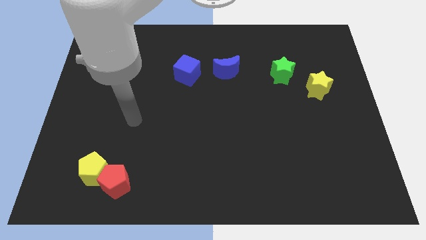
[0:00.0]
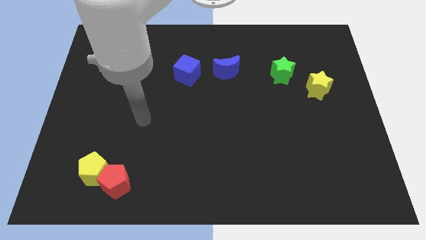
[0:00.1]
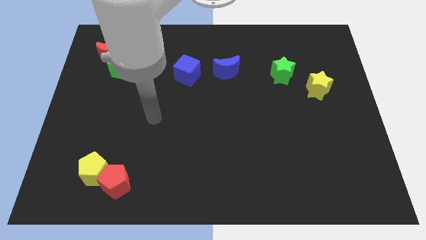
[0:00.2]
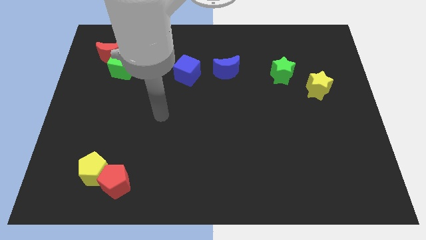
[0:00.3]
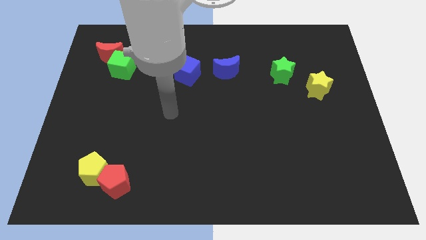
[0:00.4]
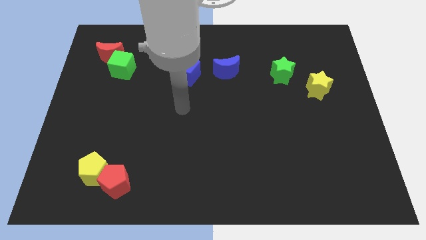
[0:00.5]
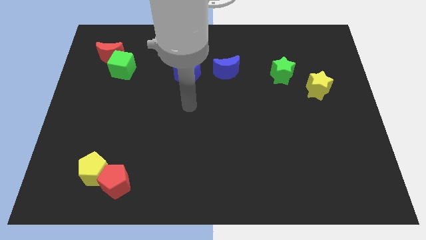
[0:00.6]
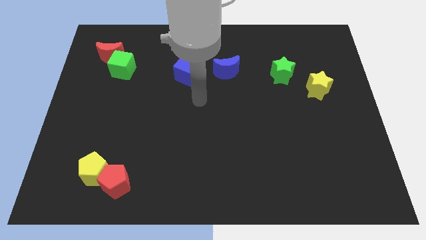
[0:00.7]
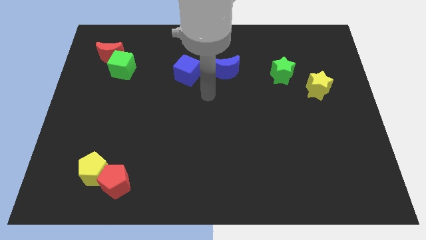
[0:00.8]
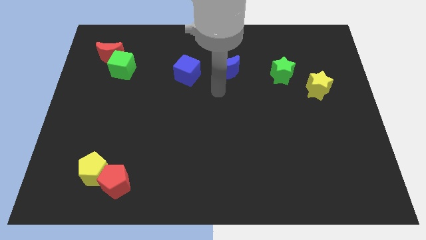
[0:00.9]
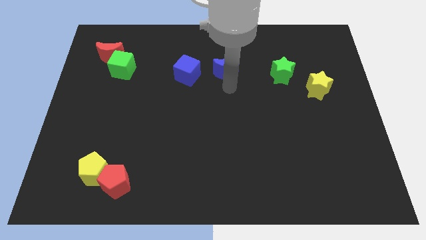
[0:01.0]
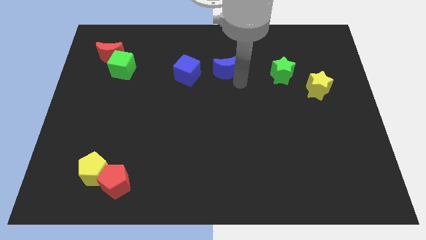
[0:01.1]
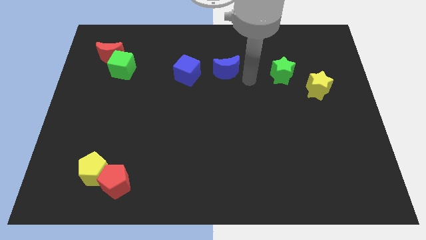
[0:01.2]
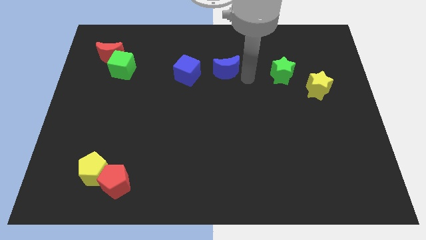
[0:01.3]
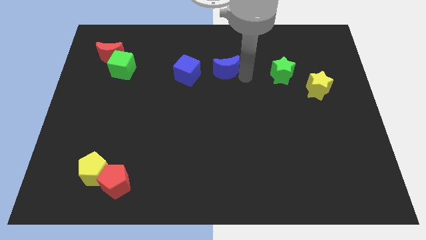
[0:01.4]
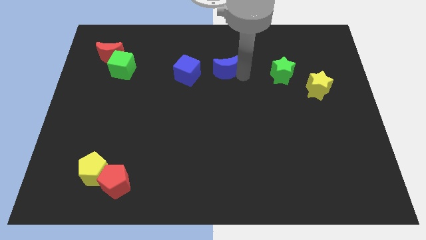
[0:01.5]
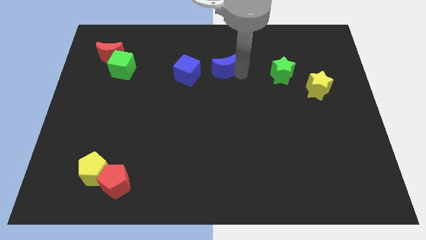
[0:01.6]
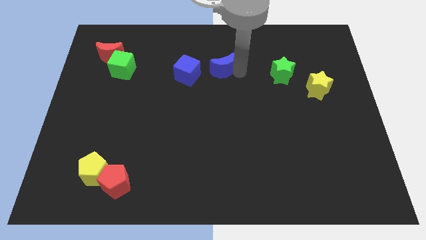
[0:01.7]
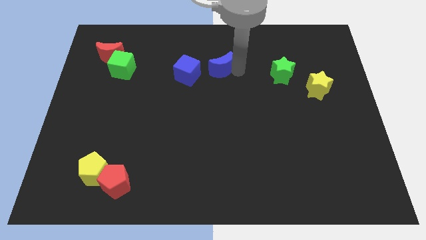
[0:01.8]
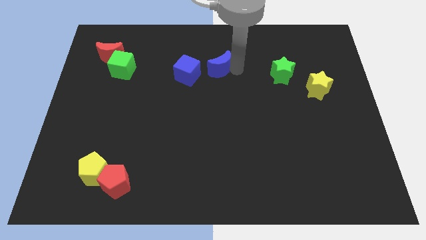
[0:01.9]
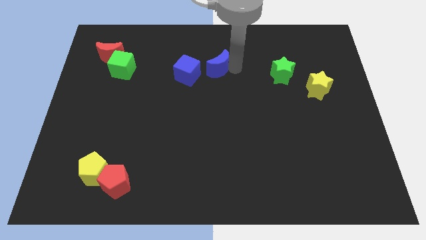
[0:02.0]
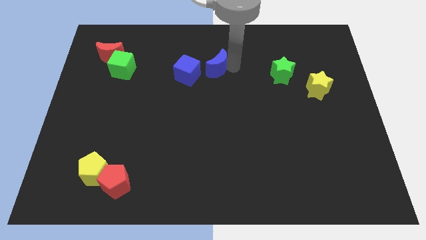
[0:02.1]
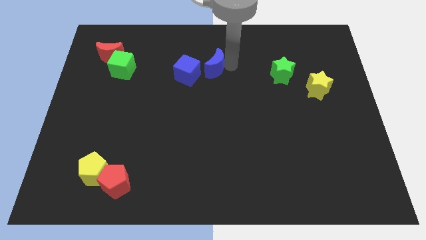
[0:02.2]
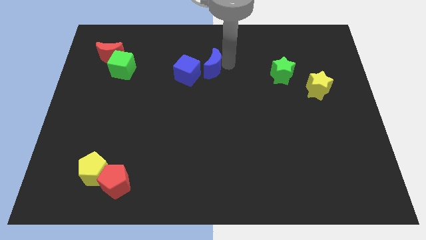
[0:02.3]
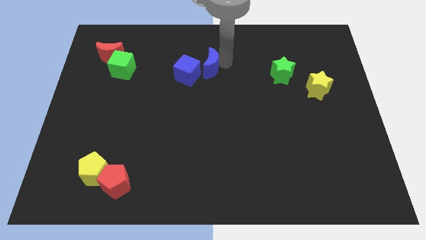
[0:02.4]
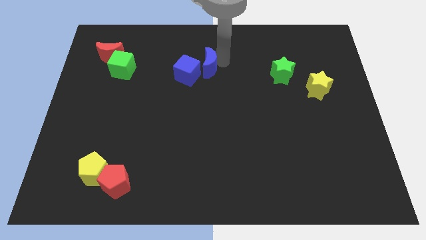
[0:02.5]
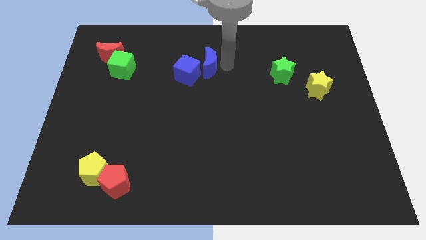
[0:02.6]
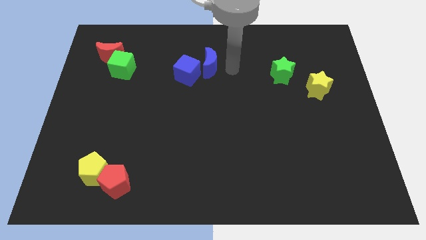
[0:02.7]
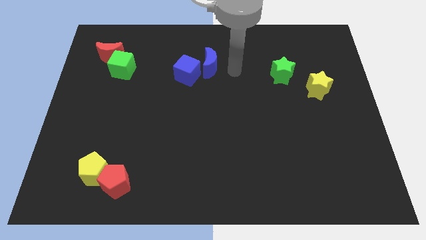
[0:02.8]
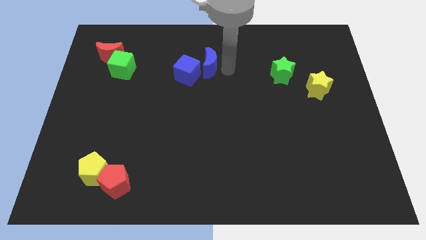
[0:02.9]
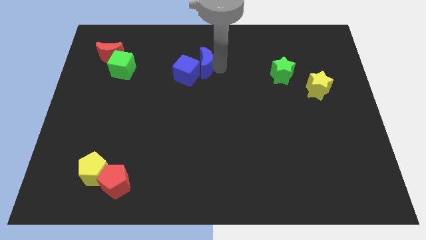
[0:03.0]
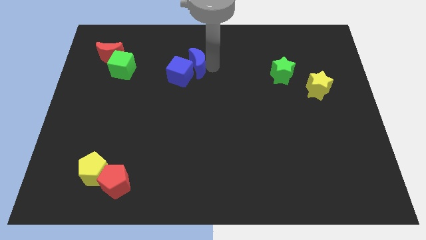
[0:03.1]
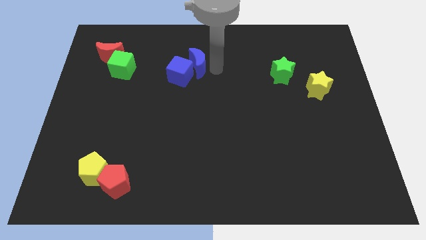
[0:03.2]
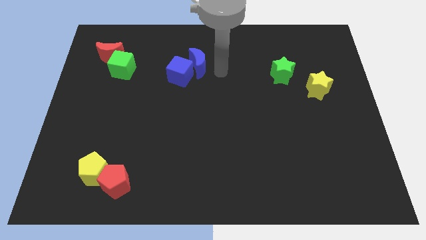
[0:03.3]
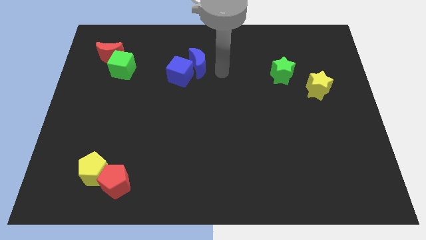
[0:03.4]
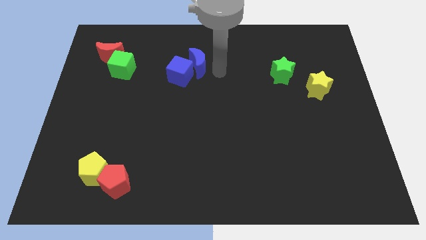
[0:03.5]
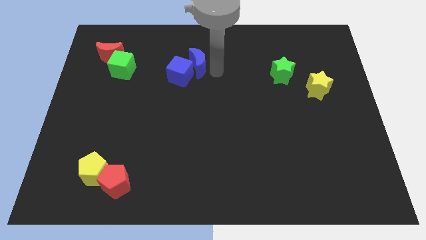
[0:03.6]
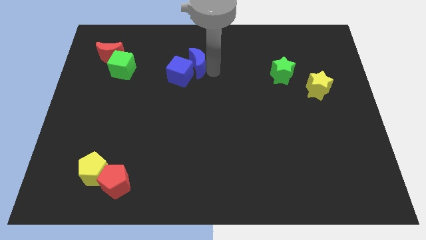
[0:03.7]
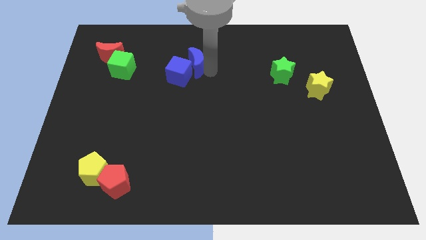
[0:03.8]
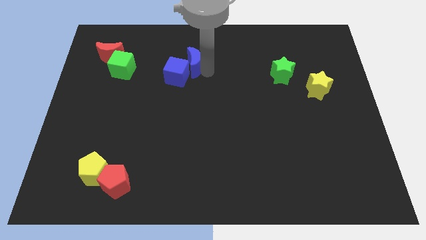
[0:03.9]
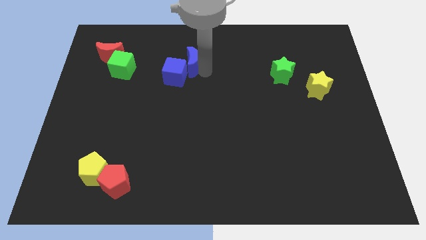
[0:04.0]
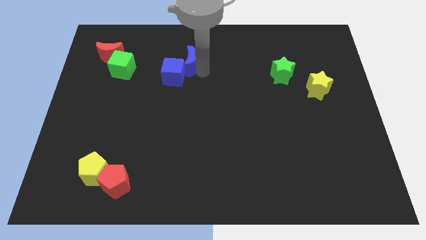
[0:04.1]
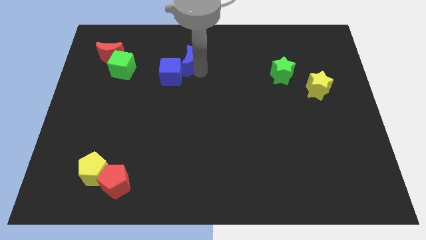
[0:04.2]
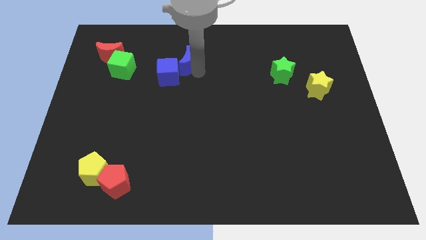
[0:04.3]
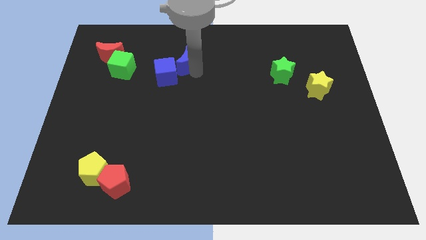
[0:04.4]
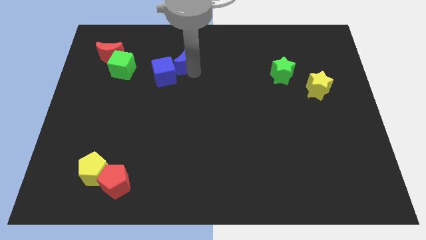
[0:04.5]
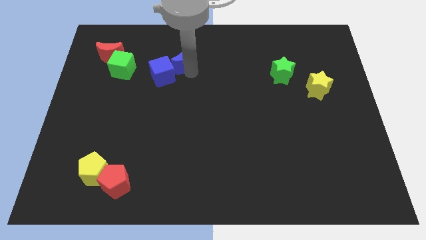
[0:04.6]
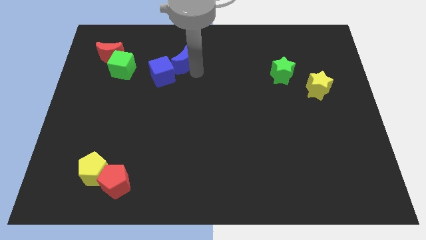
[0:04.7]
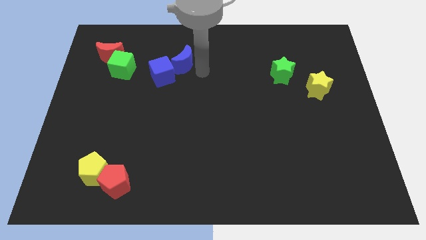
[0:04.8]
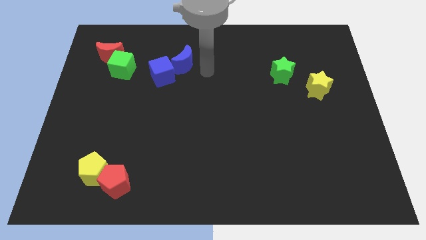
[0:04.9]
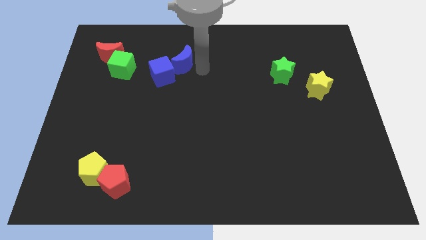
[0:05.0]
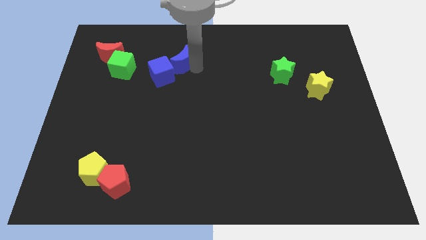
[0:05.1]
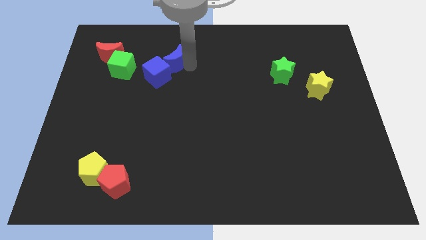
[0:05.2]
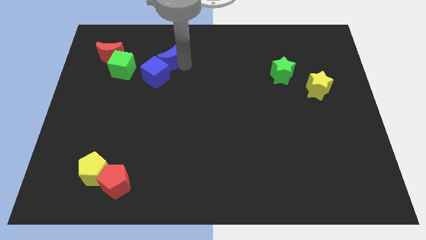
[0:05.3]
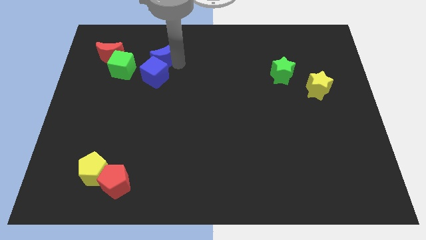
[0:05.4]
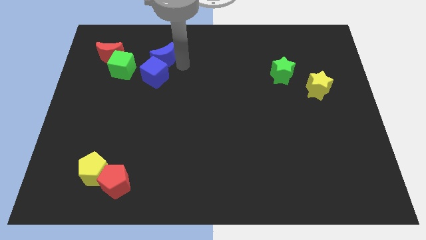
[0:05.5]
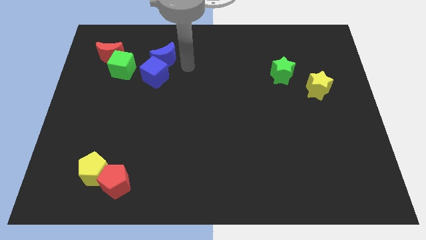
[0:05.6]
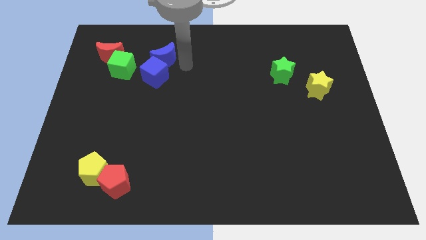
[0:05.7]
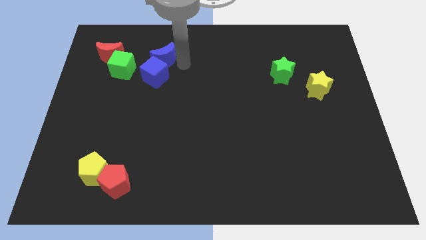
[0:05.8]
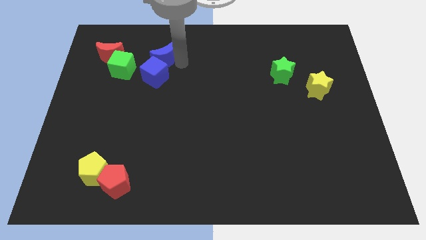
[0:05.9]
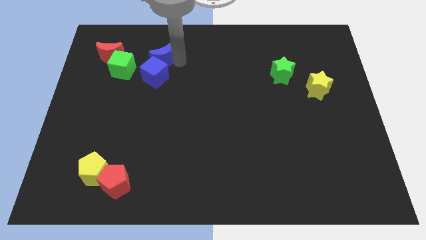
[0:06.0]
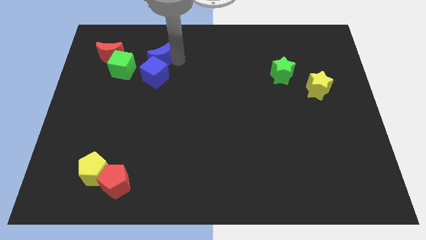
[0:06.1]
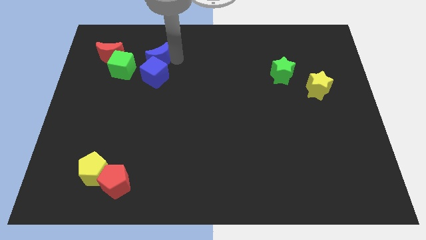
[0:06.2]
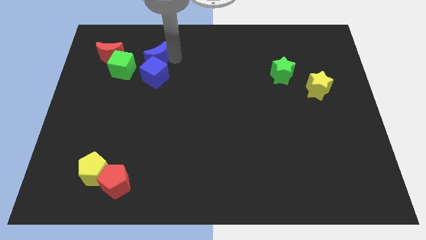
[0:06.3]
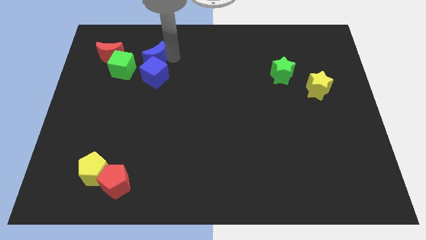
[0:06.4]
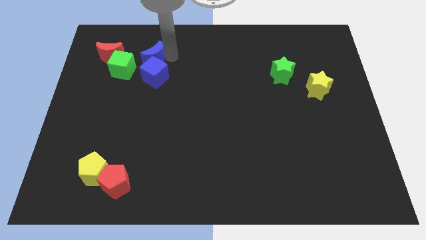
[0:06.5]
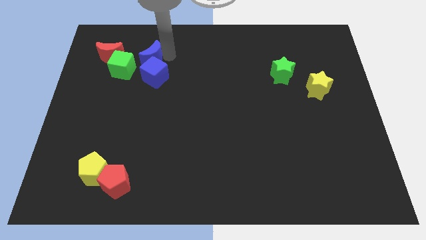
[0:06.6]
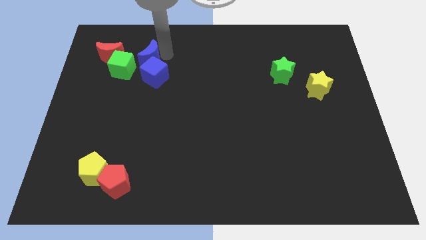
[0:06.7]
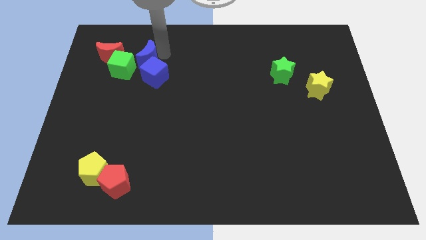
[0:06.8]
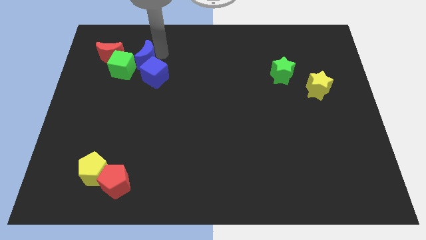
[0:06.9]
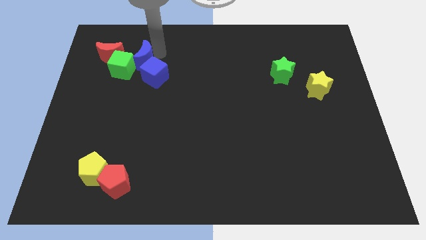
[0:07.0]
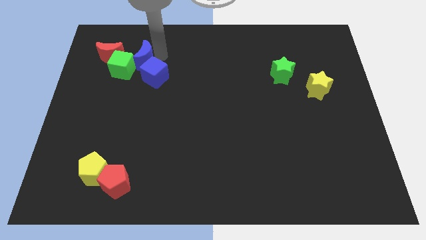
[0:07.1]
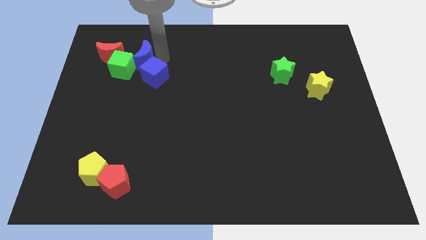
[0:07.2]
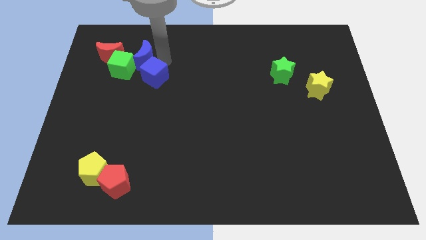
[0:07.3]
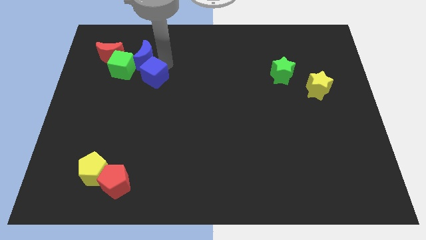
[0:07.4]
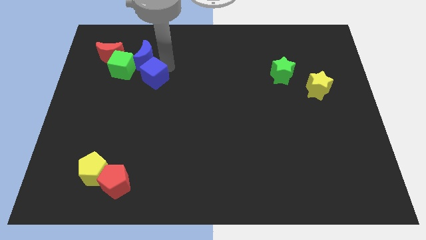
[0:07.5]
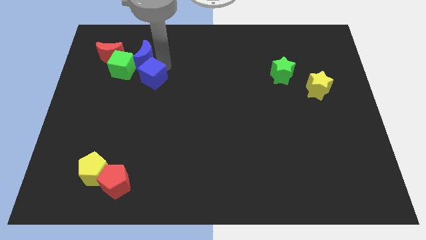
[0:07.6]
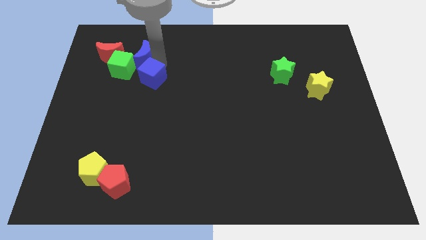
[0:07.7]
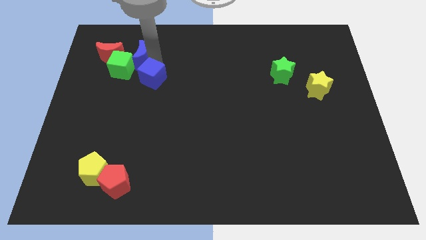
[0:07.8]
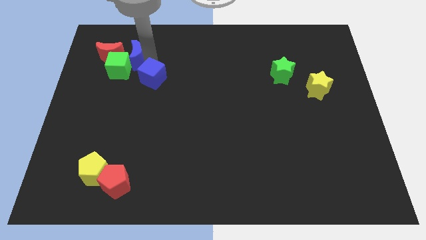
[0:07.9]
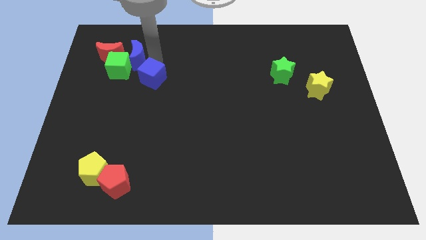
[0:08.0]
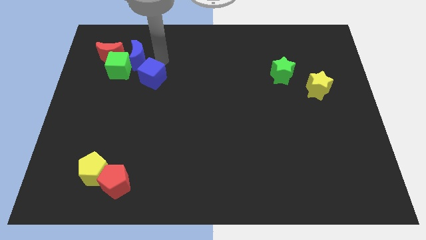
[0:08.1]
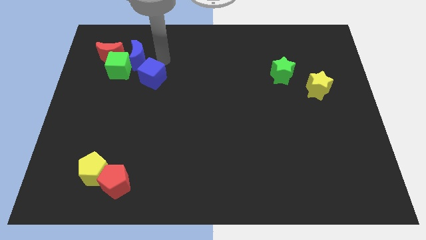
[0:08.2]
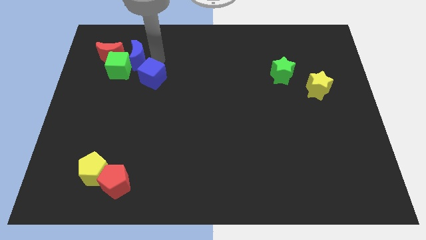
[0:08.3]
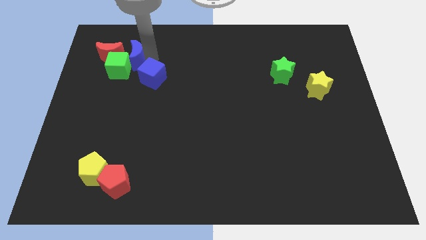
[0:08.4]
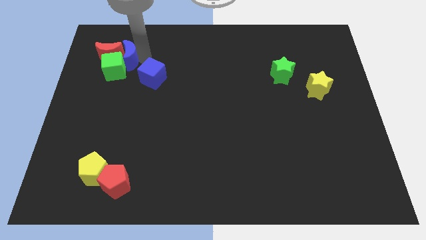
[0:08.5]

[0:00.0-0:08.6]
put the blue moon towards the red moon
